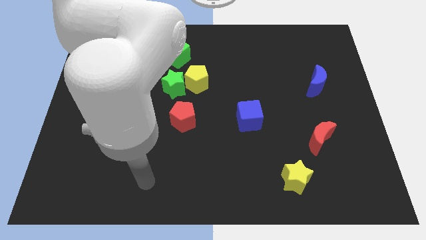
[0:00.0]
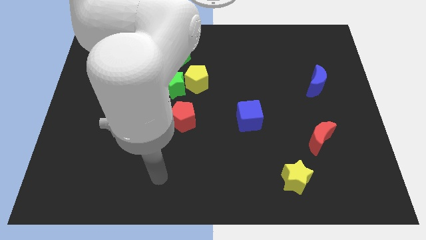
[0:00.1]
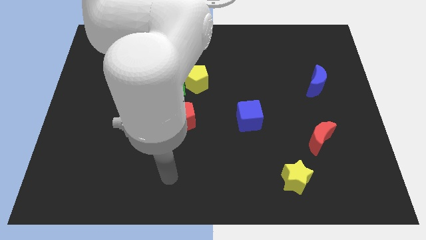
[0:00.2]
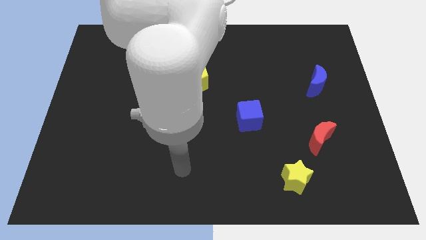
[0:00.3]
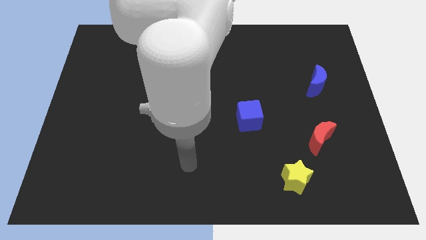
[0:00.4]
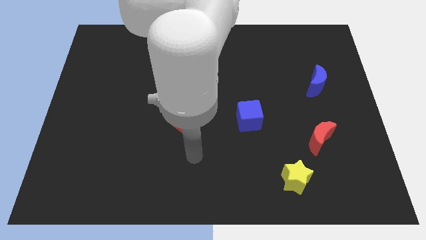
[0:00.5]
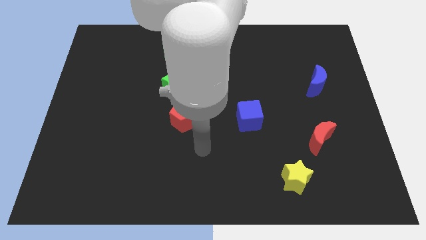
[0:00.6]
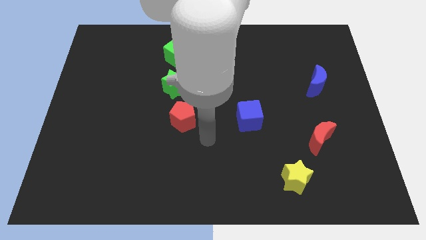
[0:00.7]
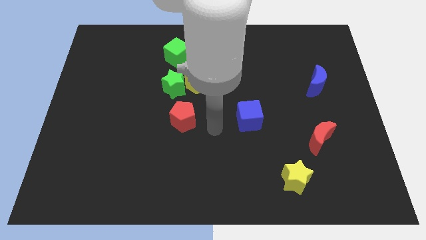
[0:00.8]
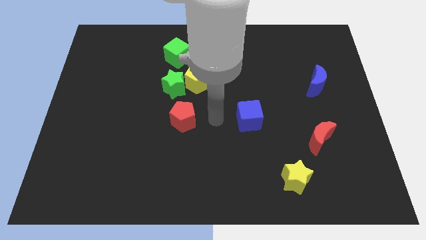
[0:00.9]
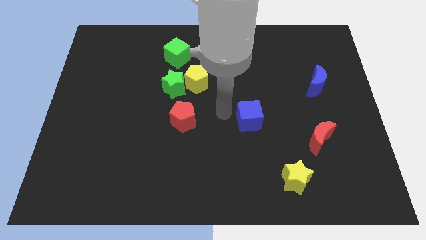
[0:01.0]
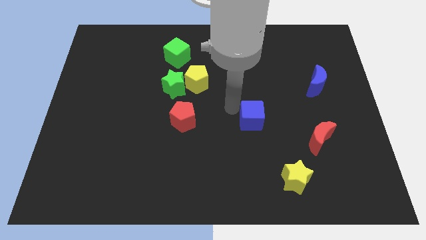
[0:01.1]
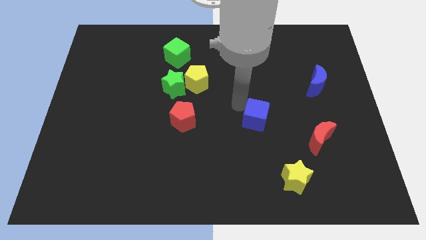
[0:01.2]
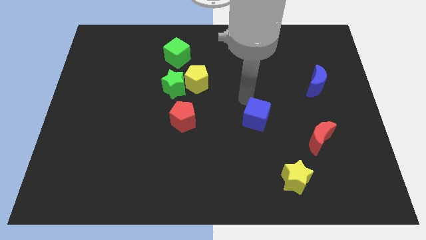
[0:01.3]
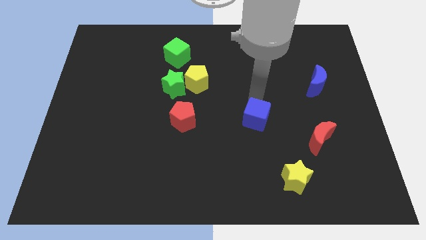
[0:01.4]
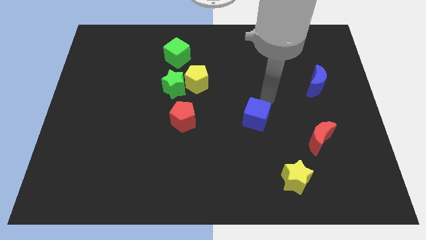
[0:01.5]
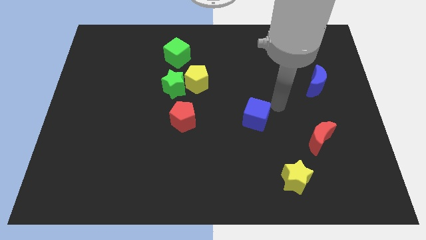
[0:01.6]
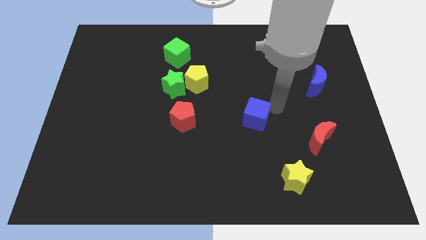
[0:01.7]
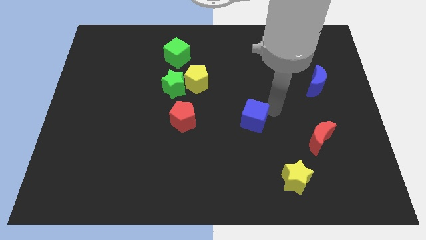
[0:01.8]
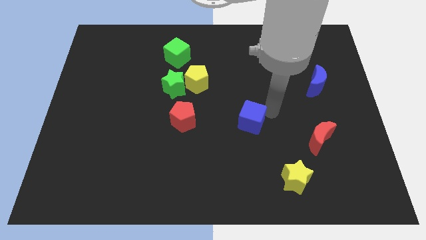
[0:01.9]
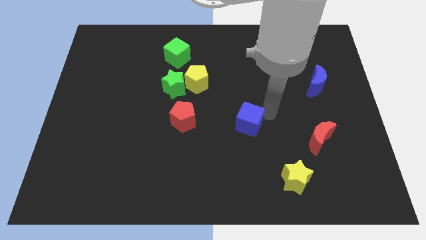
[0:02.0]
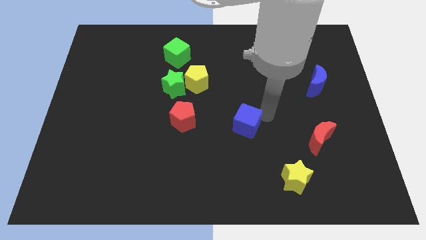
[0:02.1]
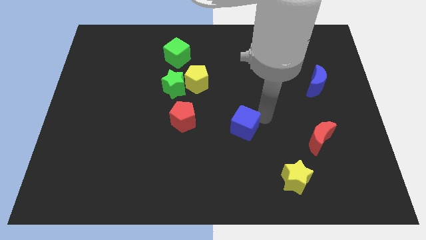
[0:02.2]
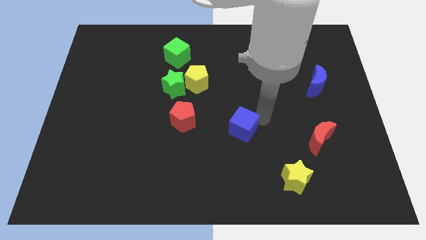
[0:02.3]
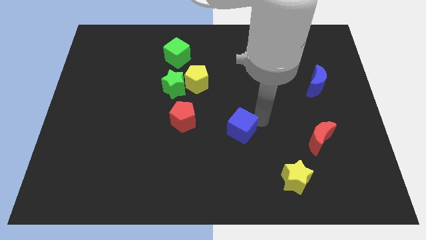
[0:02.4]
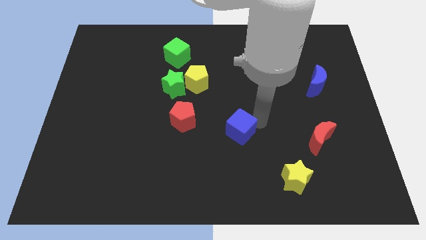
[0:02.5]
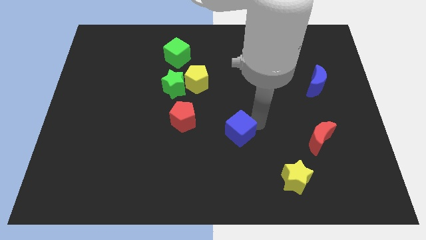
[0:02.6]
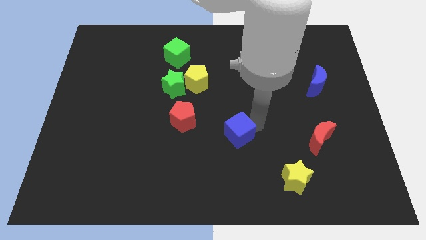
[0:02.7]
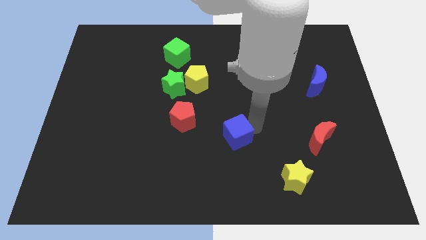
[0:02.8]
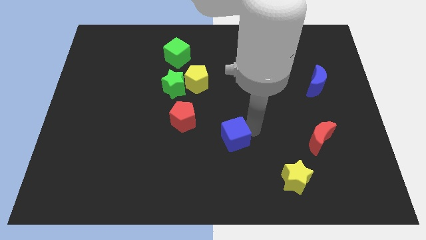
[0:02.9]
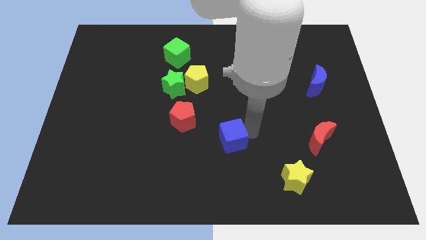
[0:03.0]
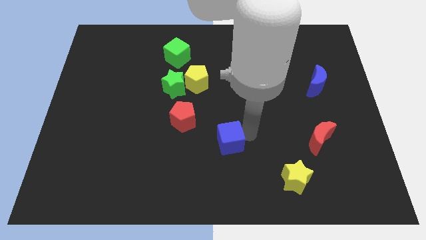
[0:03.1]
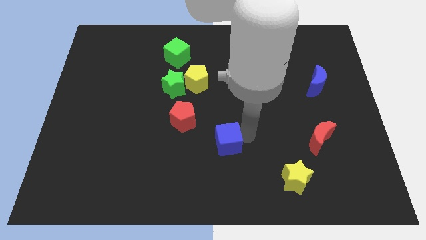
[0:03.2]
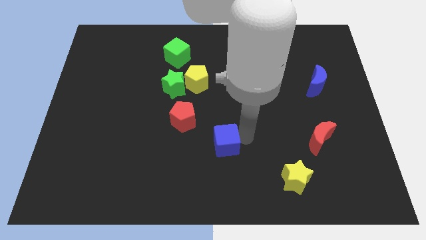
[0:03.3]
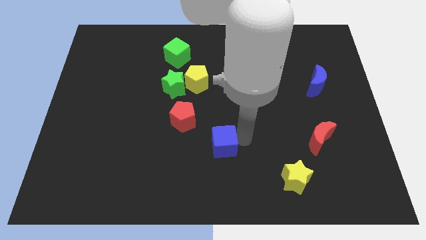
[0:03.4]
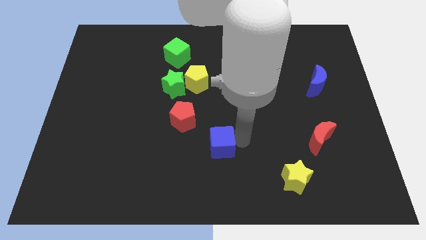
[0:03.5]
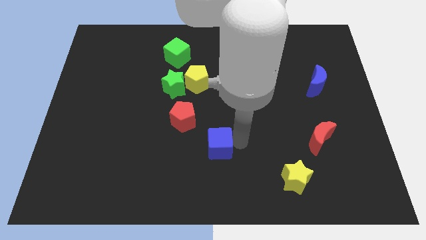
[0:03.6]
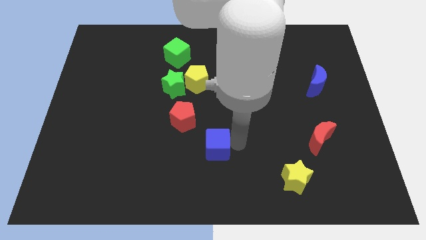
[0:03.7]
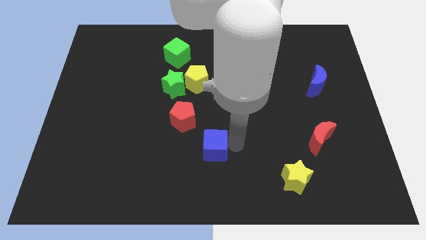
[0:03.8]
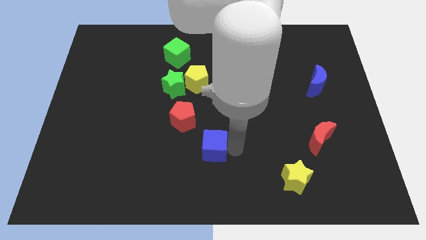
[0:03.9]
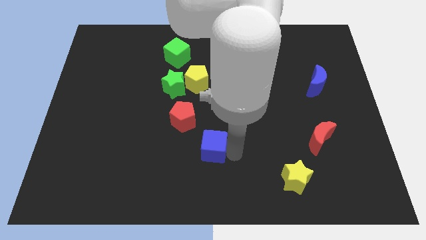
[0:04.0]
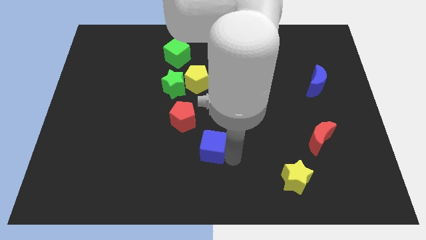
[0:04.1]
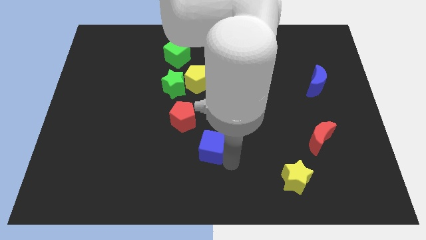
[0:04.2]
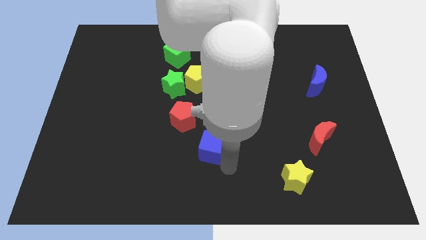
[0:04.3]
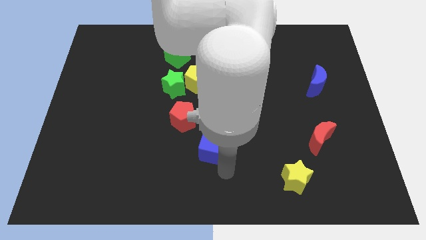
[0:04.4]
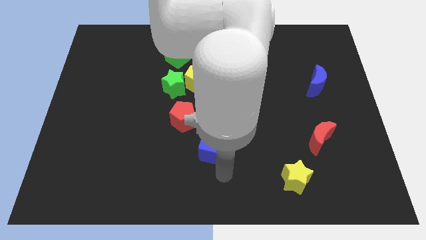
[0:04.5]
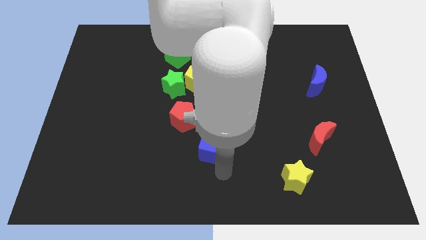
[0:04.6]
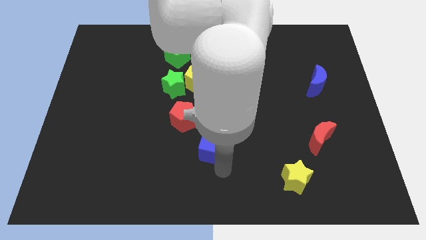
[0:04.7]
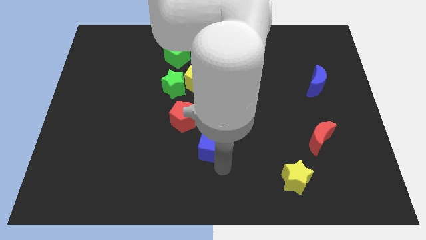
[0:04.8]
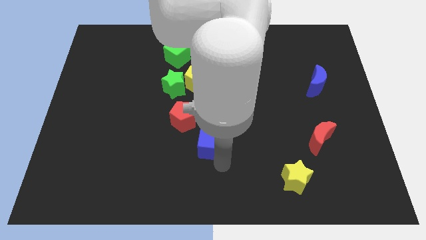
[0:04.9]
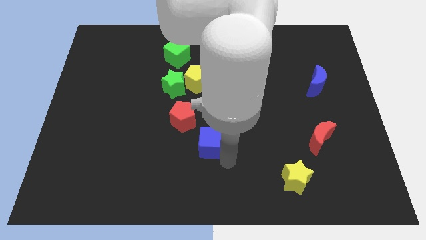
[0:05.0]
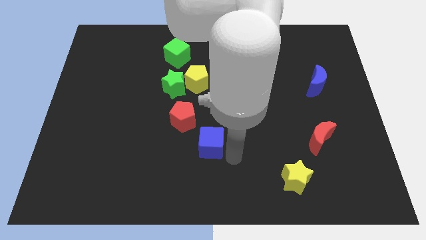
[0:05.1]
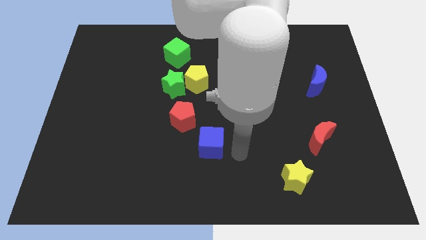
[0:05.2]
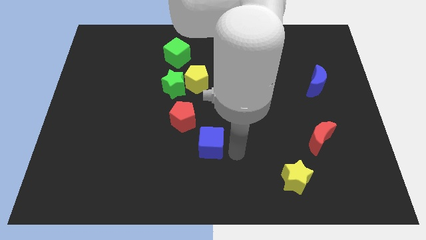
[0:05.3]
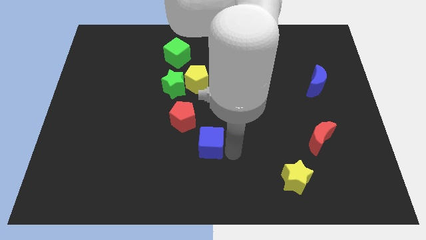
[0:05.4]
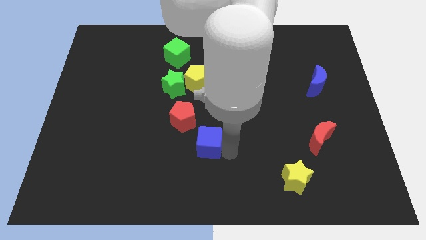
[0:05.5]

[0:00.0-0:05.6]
slightly move the blue cube left

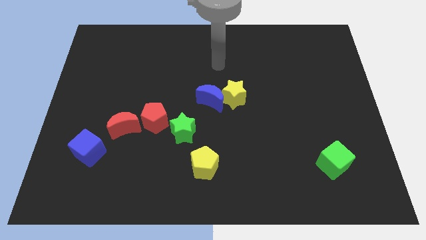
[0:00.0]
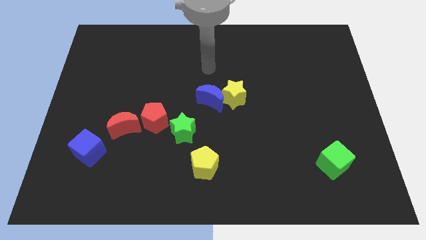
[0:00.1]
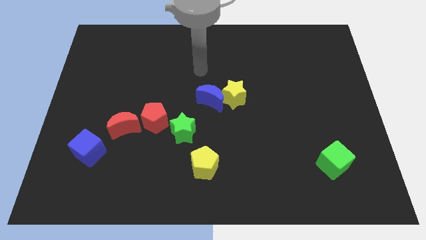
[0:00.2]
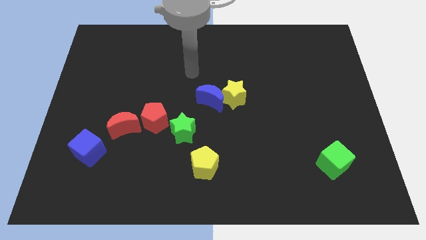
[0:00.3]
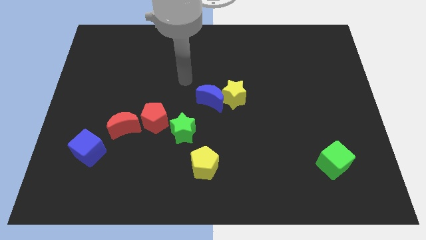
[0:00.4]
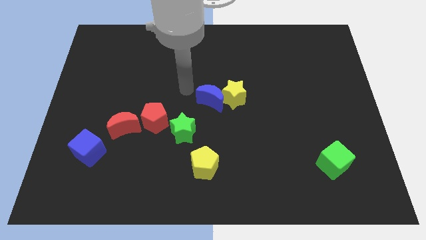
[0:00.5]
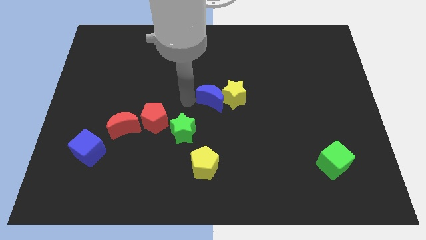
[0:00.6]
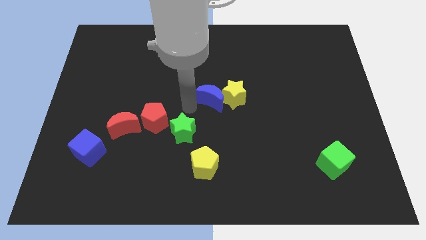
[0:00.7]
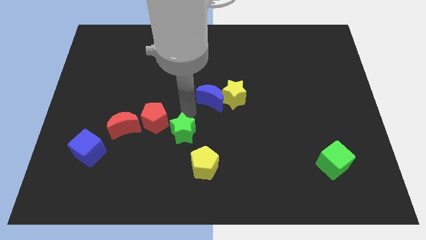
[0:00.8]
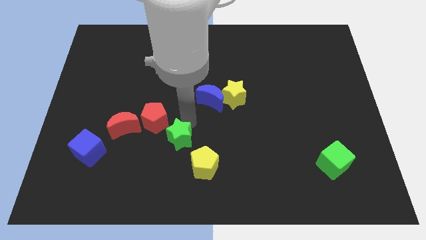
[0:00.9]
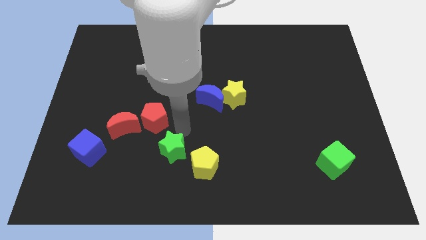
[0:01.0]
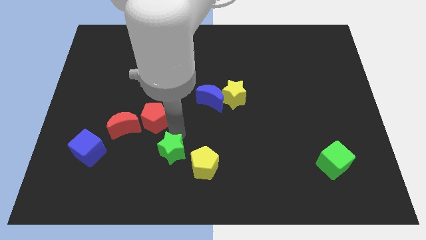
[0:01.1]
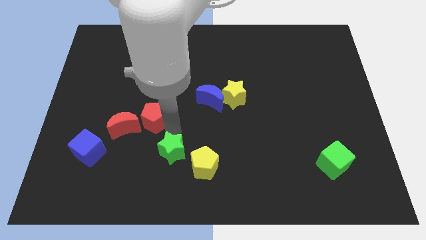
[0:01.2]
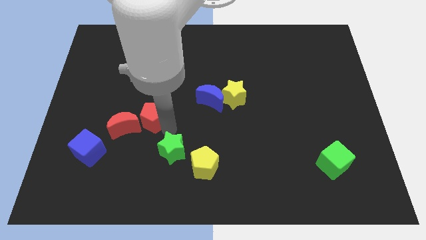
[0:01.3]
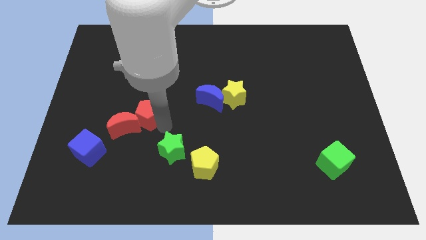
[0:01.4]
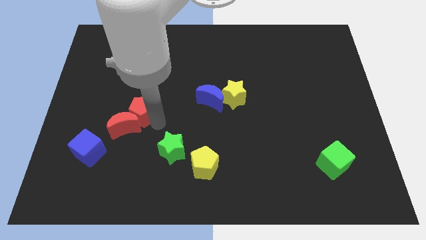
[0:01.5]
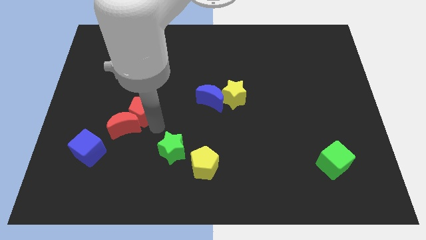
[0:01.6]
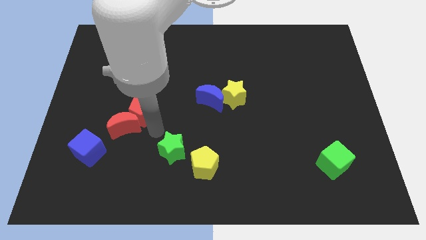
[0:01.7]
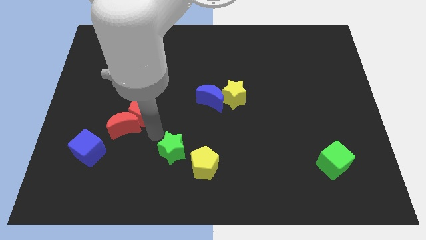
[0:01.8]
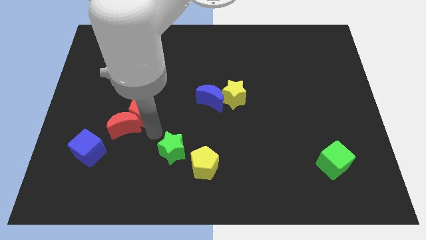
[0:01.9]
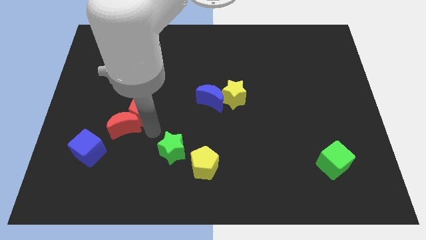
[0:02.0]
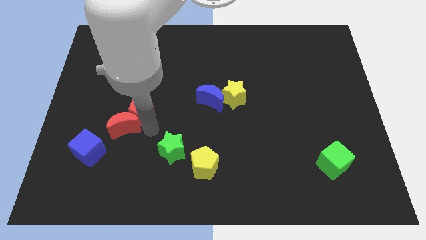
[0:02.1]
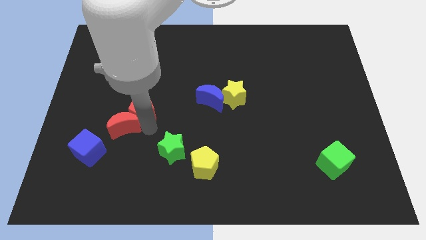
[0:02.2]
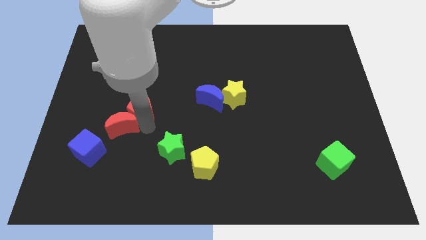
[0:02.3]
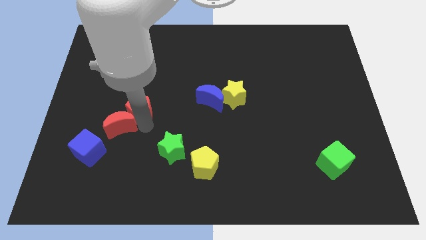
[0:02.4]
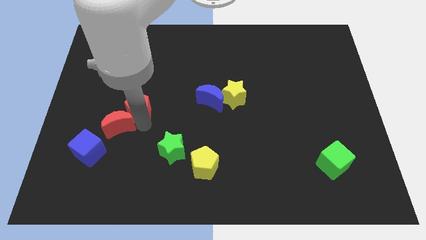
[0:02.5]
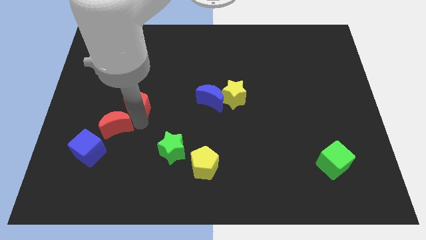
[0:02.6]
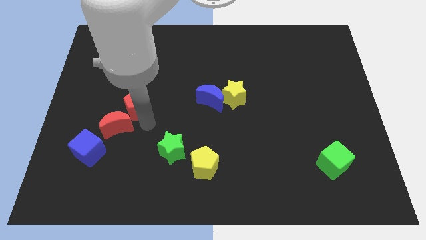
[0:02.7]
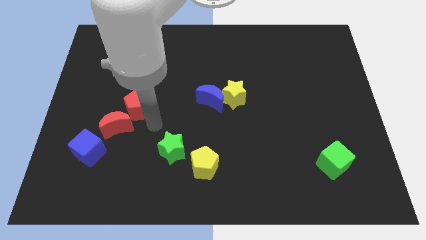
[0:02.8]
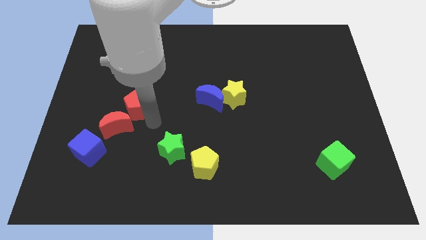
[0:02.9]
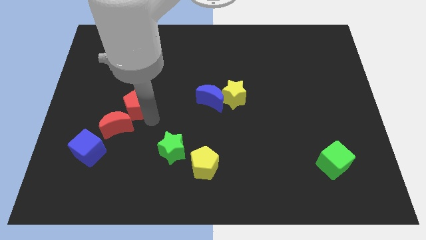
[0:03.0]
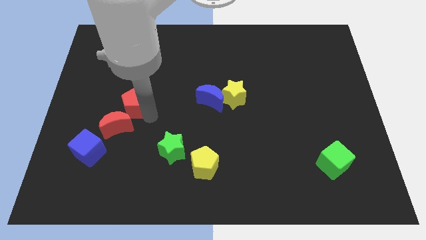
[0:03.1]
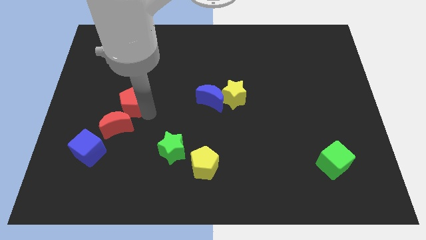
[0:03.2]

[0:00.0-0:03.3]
slightly slide the red pentagon upwards and left diagonally
